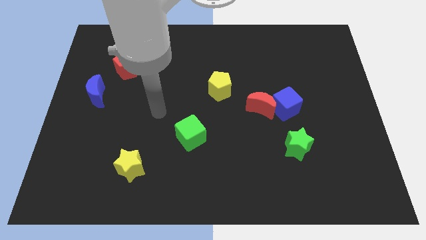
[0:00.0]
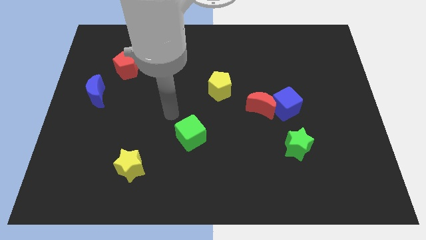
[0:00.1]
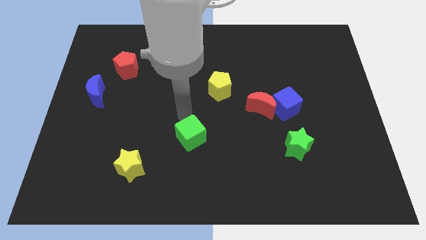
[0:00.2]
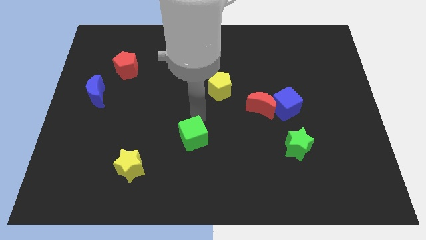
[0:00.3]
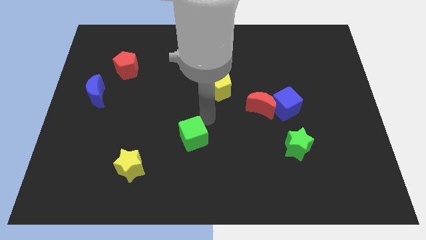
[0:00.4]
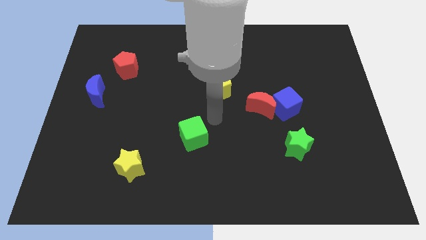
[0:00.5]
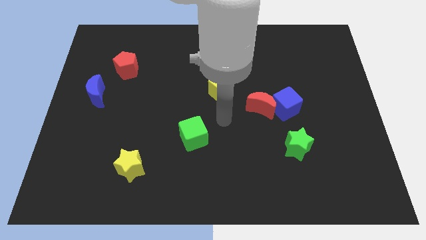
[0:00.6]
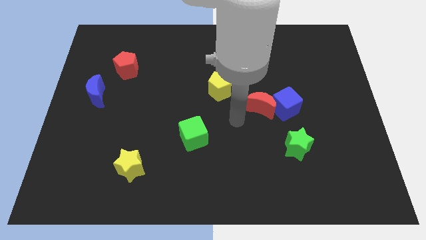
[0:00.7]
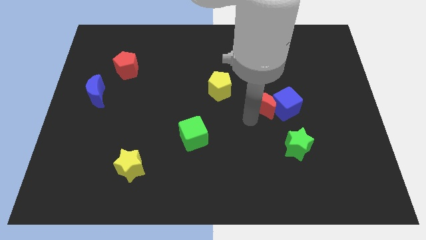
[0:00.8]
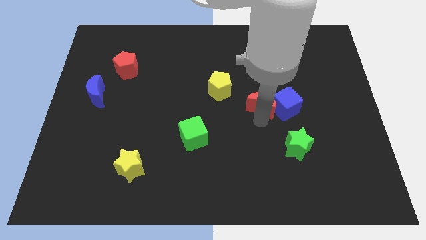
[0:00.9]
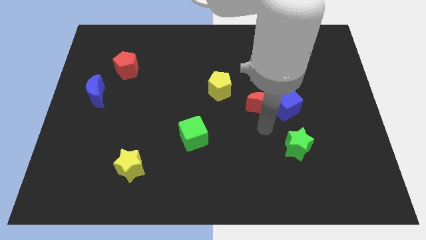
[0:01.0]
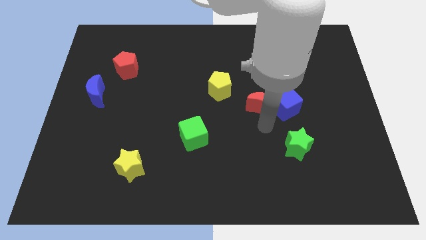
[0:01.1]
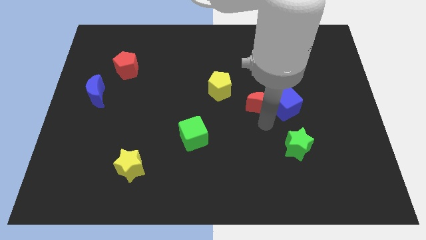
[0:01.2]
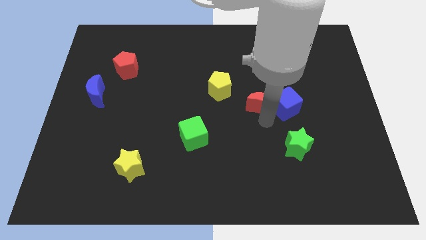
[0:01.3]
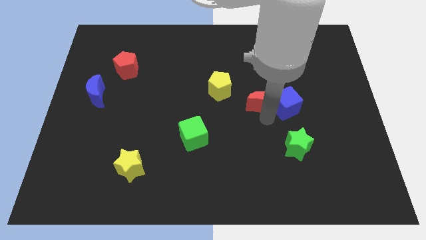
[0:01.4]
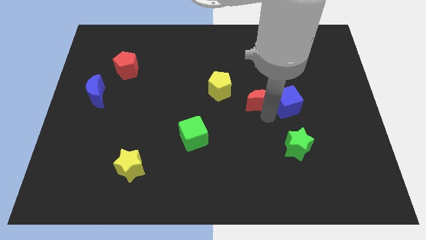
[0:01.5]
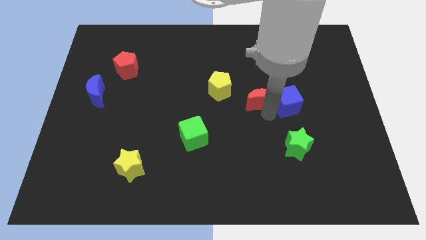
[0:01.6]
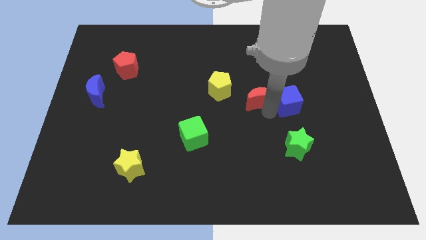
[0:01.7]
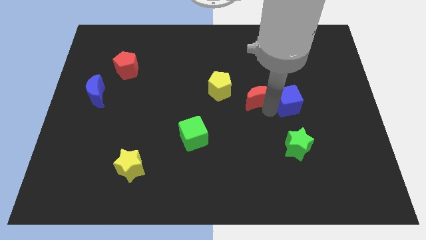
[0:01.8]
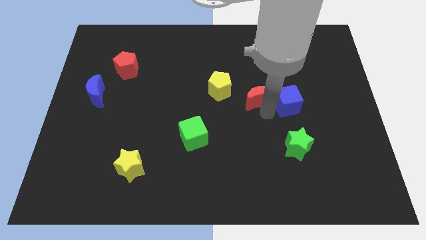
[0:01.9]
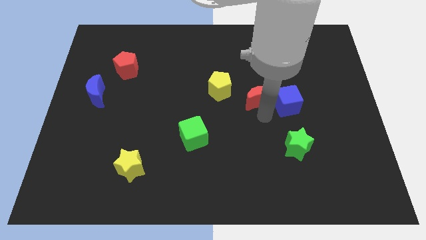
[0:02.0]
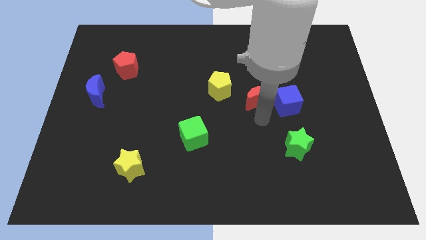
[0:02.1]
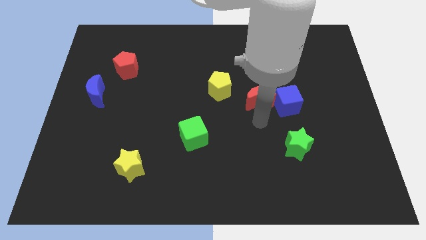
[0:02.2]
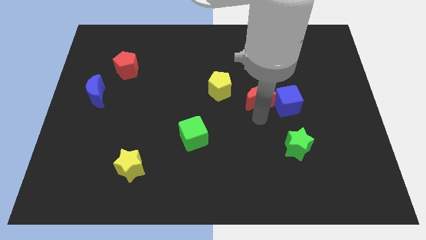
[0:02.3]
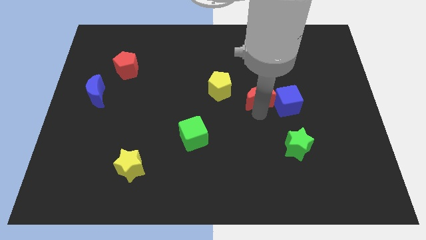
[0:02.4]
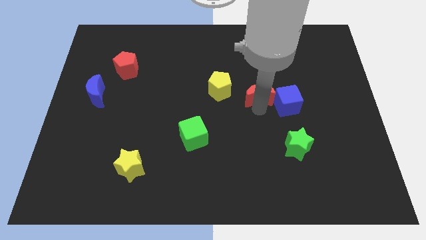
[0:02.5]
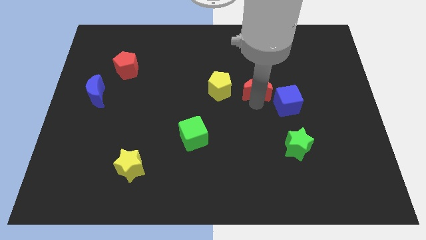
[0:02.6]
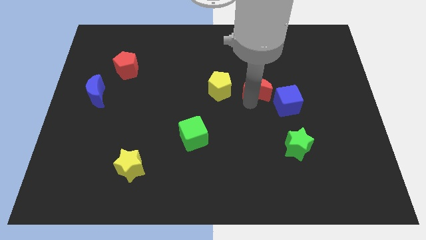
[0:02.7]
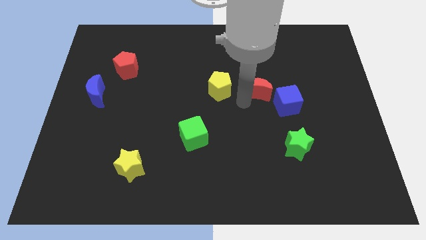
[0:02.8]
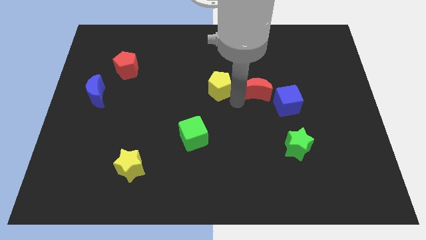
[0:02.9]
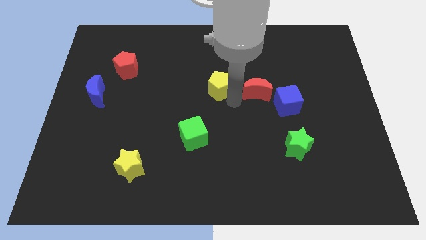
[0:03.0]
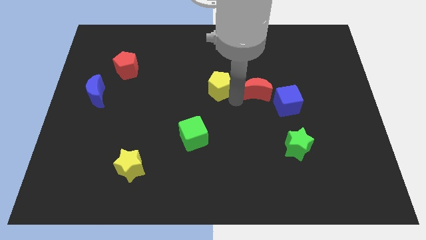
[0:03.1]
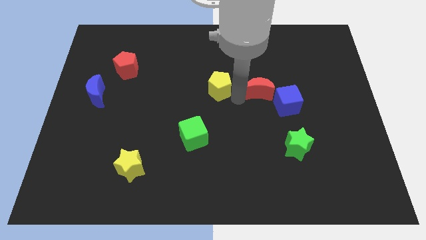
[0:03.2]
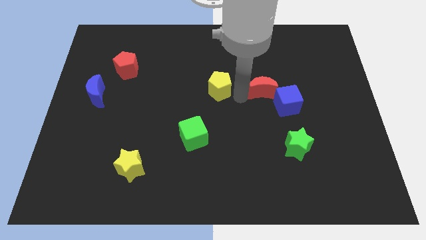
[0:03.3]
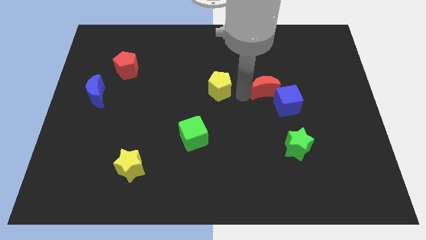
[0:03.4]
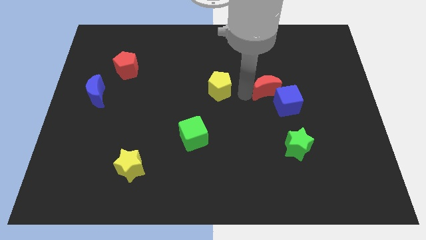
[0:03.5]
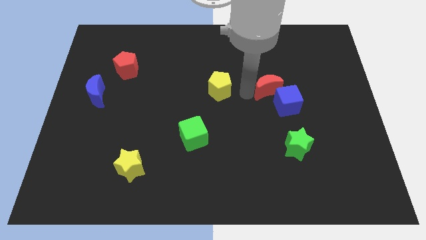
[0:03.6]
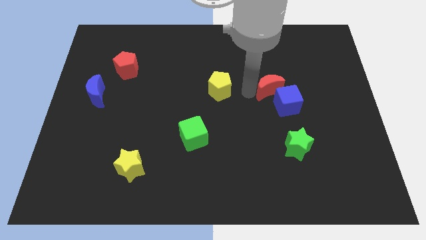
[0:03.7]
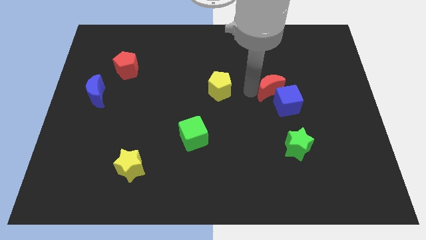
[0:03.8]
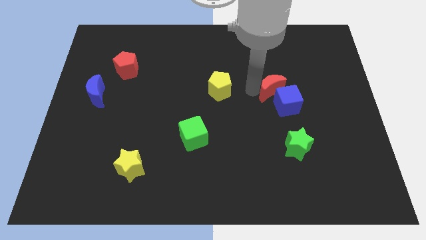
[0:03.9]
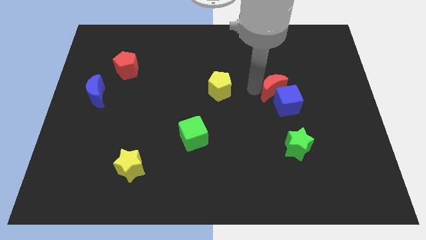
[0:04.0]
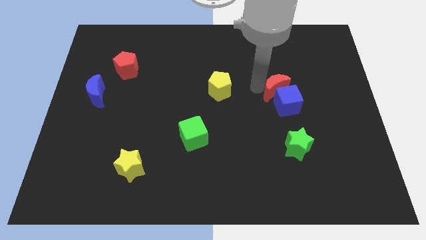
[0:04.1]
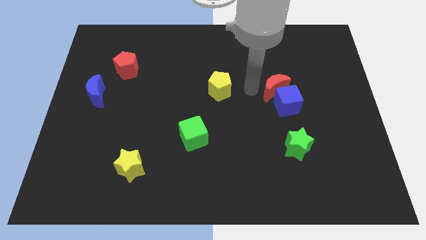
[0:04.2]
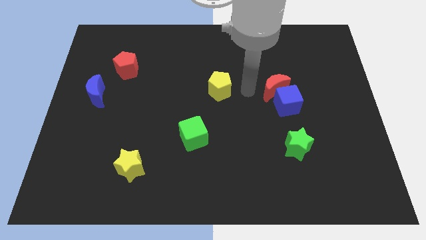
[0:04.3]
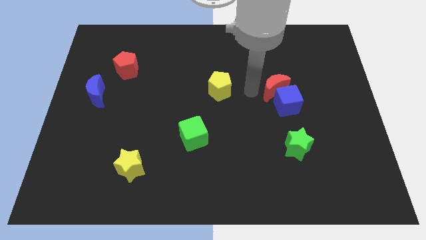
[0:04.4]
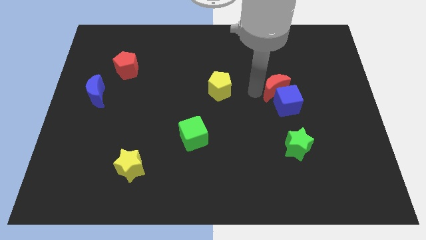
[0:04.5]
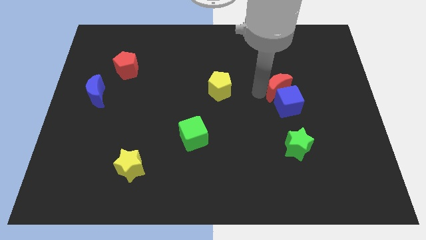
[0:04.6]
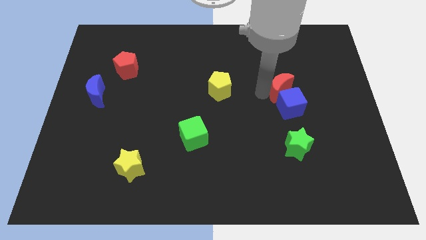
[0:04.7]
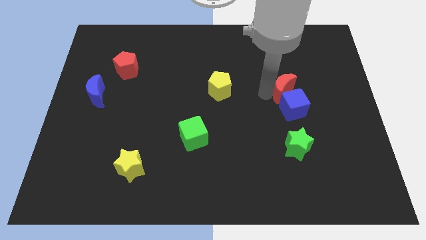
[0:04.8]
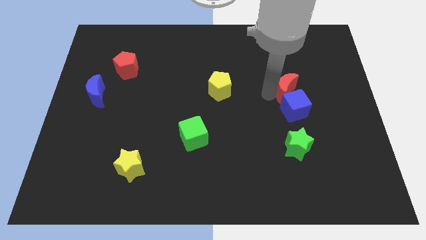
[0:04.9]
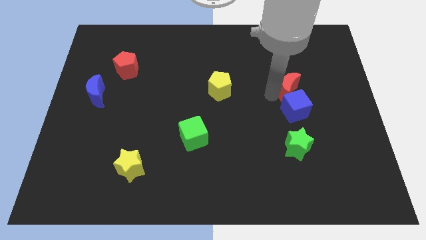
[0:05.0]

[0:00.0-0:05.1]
push the red moon diagonally up and to the right of the blue cube

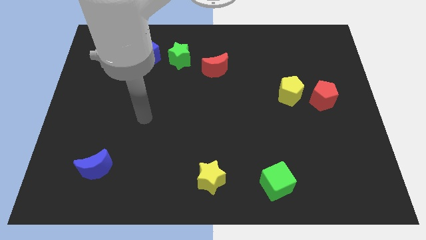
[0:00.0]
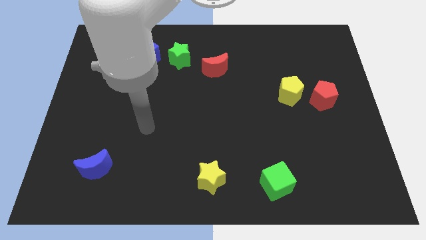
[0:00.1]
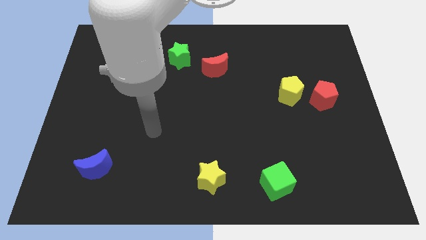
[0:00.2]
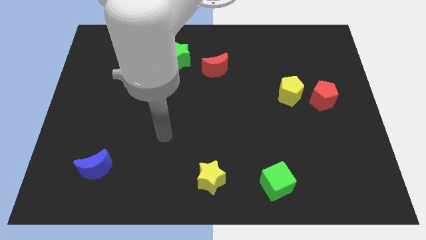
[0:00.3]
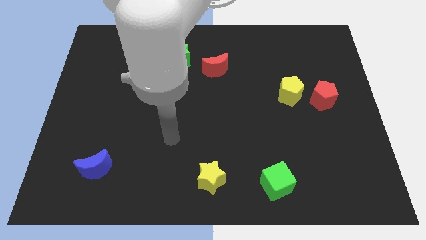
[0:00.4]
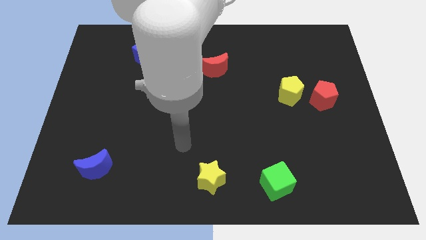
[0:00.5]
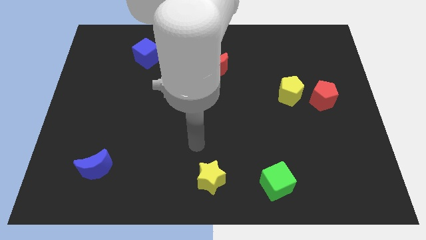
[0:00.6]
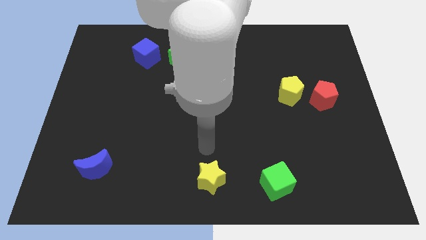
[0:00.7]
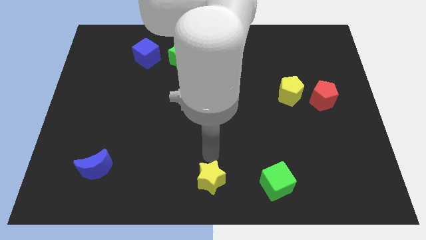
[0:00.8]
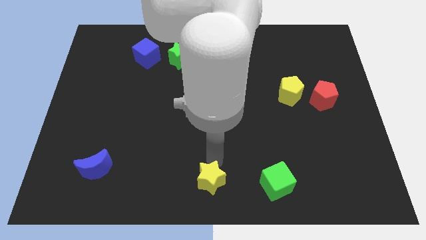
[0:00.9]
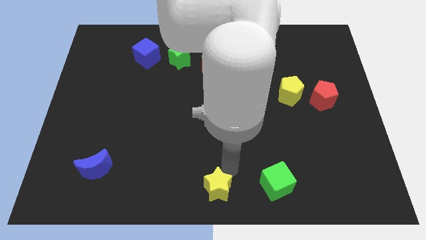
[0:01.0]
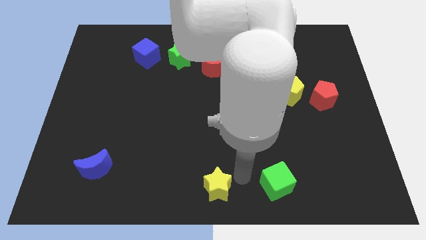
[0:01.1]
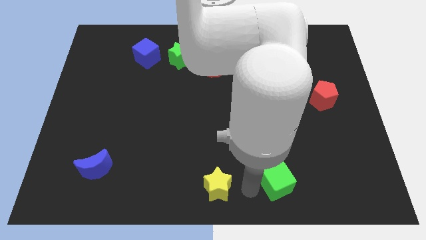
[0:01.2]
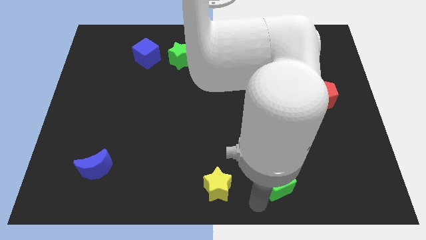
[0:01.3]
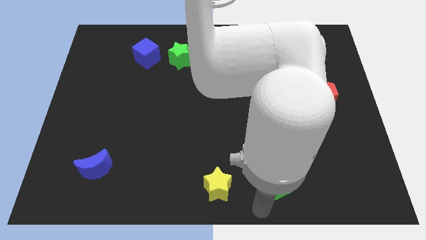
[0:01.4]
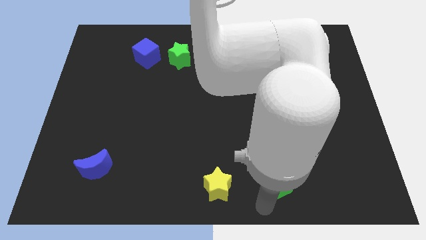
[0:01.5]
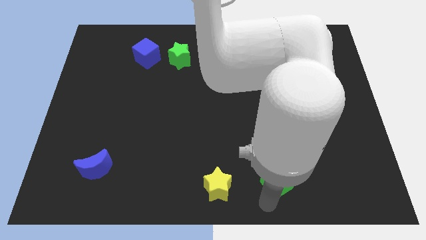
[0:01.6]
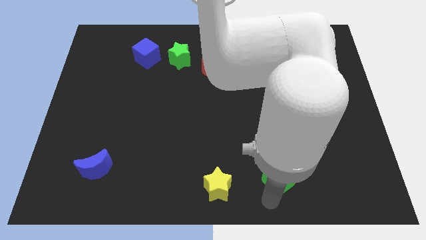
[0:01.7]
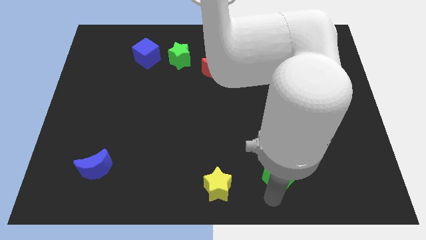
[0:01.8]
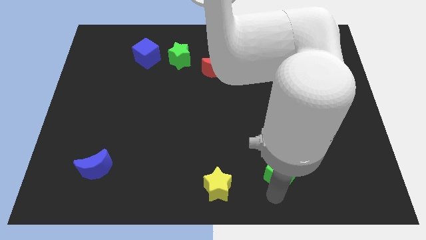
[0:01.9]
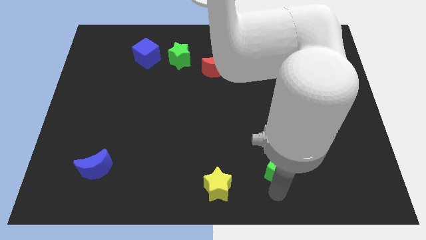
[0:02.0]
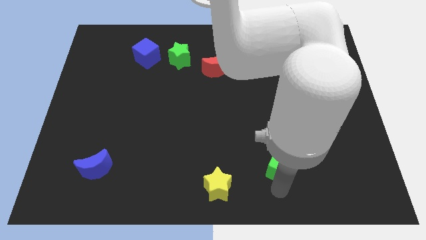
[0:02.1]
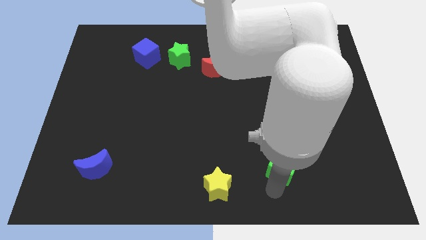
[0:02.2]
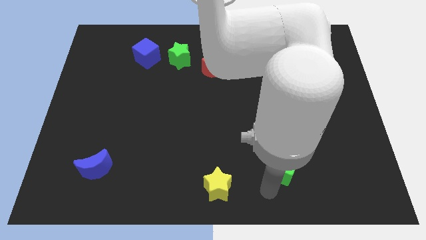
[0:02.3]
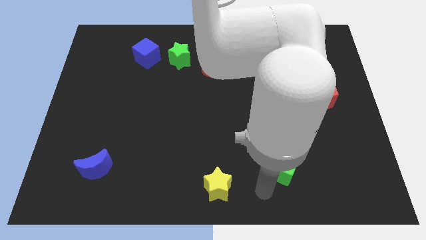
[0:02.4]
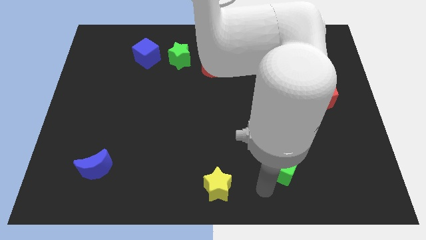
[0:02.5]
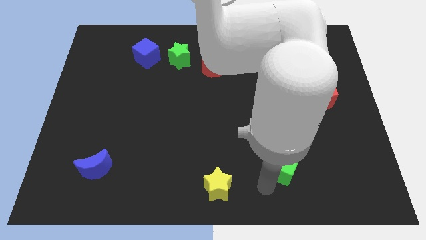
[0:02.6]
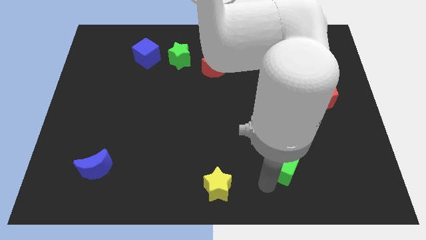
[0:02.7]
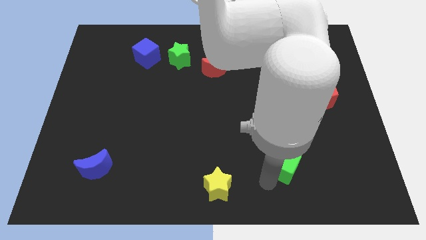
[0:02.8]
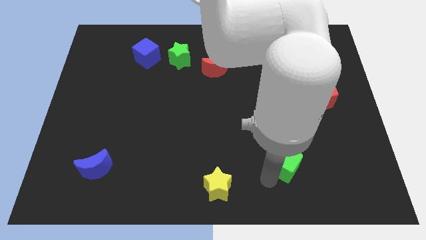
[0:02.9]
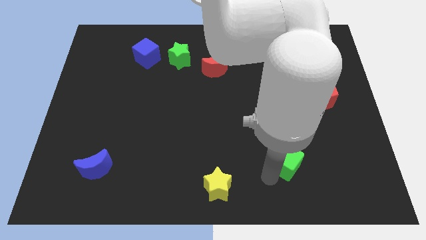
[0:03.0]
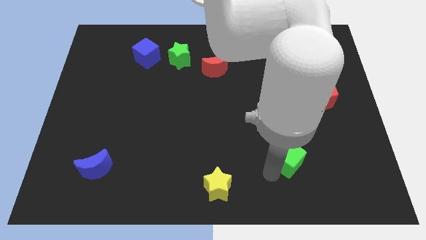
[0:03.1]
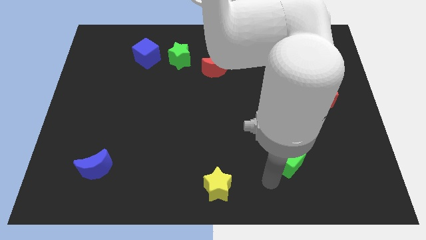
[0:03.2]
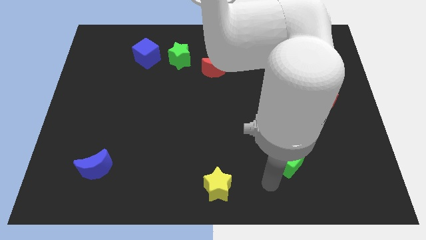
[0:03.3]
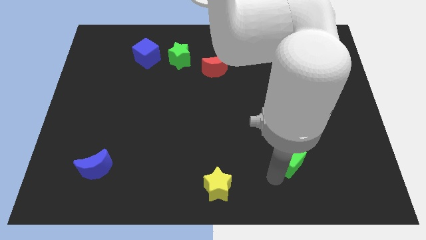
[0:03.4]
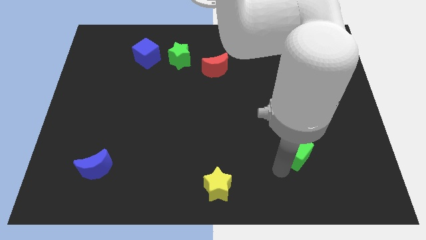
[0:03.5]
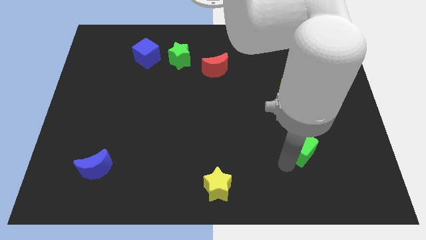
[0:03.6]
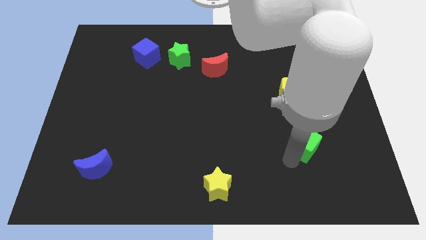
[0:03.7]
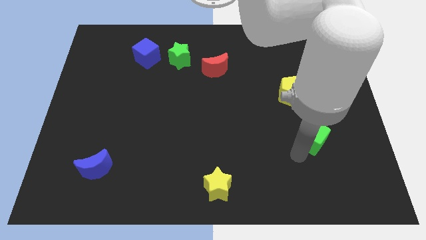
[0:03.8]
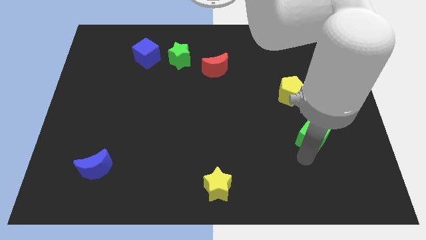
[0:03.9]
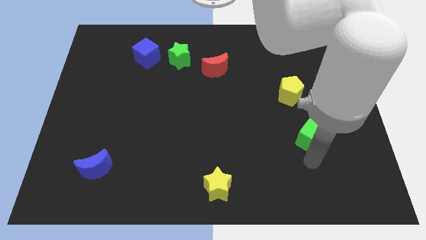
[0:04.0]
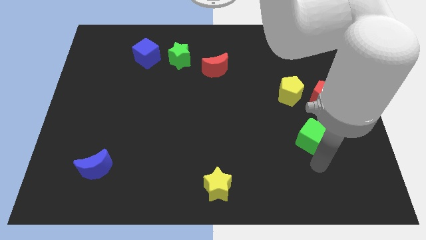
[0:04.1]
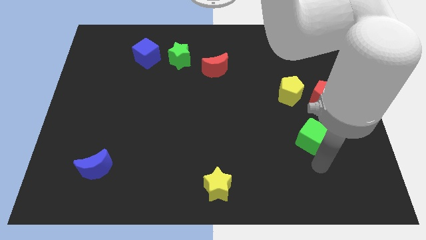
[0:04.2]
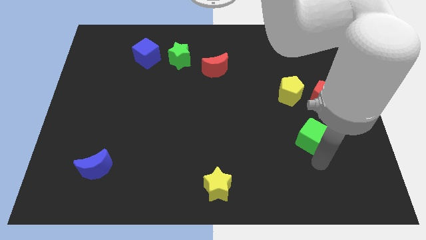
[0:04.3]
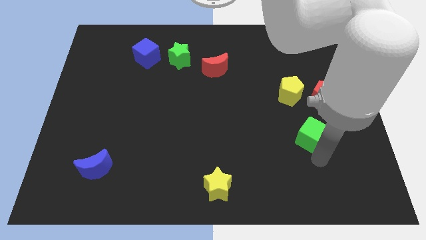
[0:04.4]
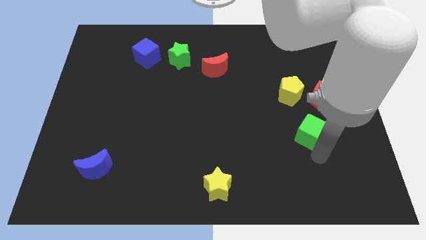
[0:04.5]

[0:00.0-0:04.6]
move the green cube diagonally down and to the left of the red pentagon
